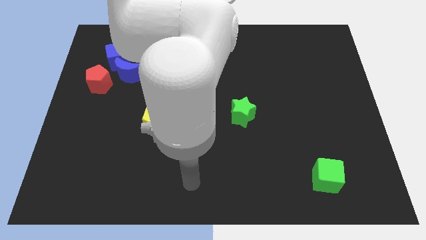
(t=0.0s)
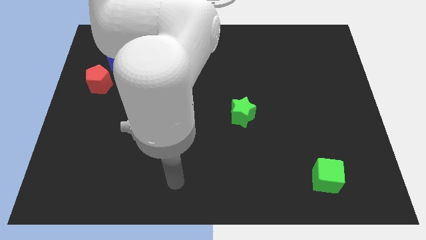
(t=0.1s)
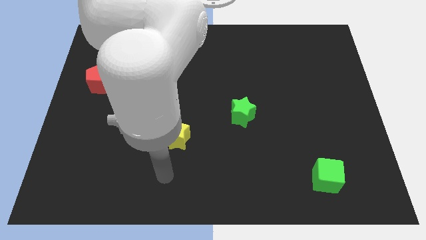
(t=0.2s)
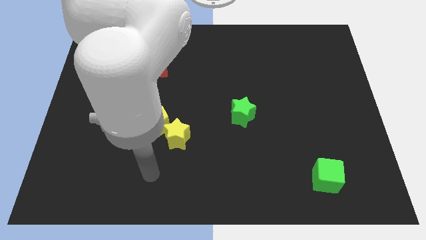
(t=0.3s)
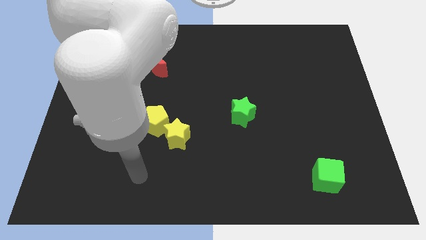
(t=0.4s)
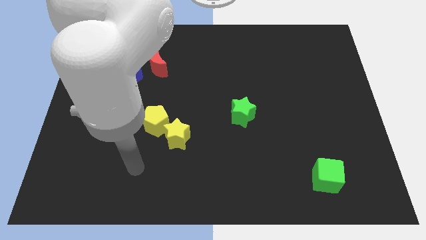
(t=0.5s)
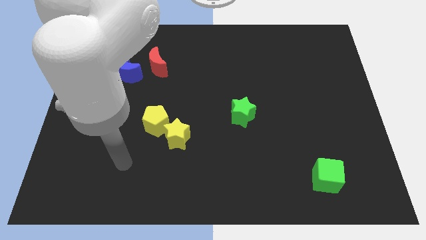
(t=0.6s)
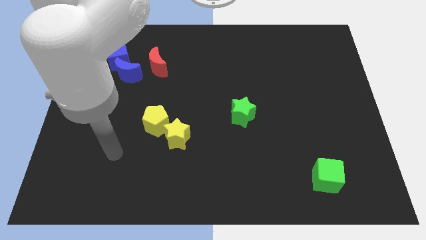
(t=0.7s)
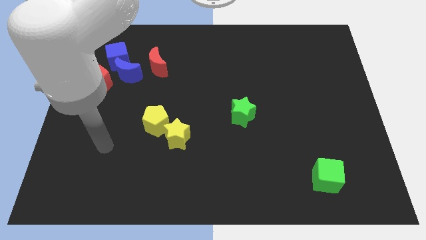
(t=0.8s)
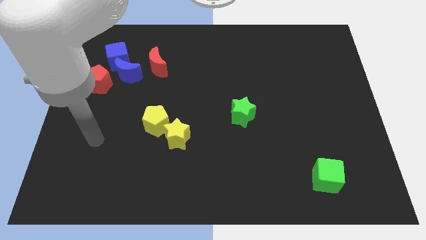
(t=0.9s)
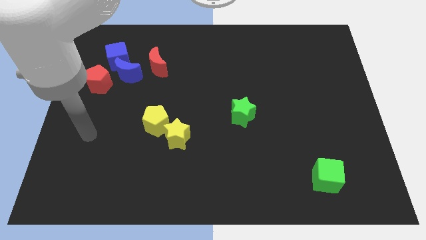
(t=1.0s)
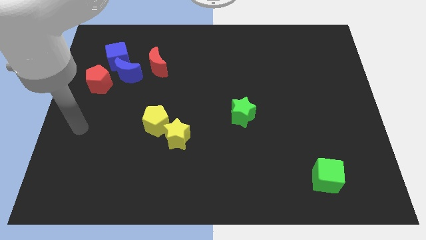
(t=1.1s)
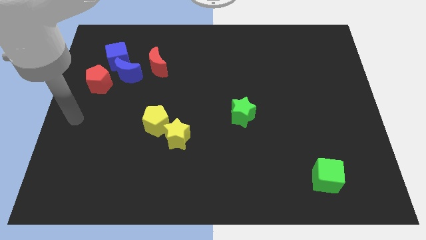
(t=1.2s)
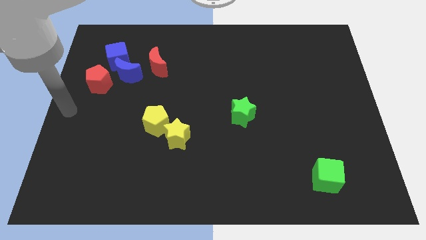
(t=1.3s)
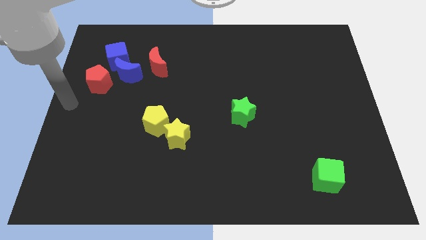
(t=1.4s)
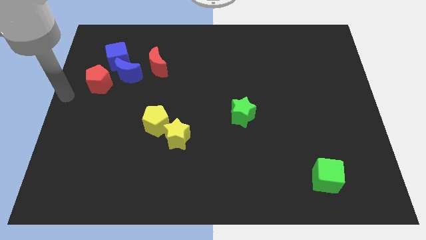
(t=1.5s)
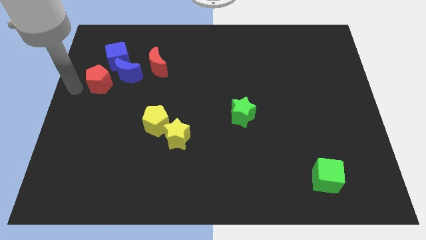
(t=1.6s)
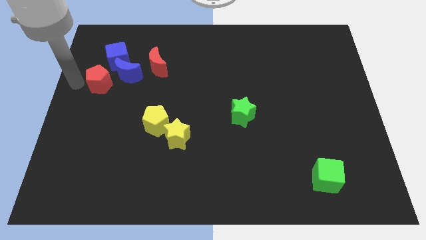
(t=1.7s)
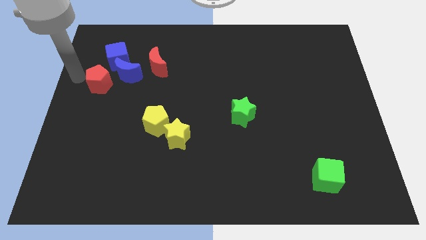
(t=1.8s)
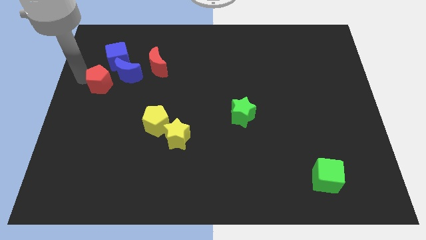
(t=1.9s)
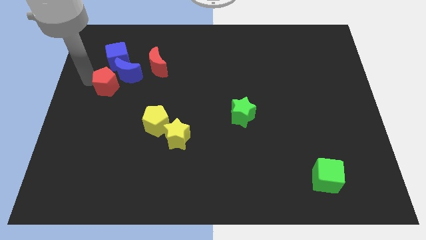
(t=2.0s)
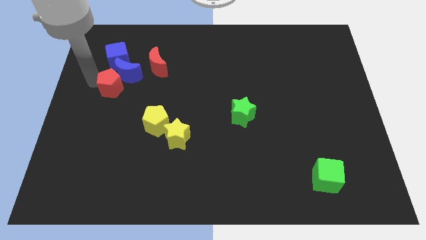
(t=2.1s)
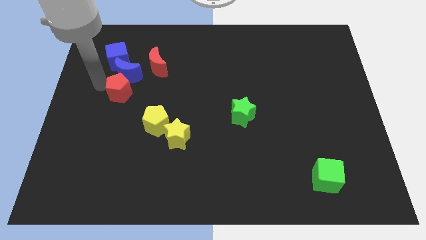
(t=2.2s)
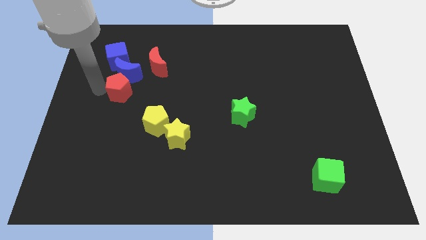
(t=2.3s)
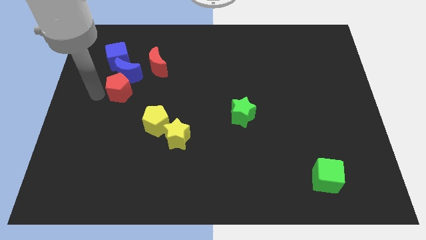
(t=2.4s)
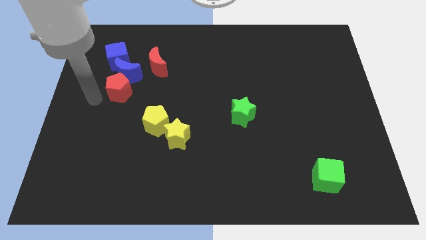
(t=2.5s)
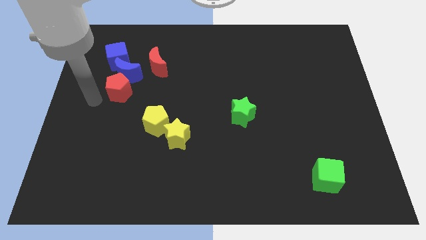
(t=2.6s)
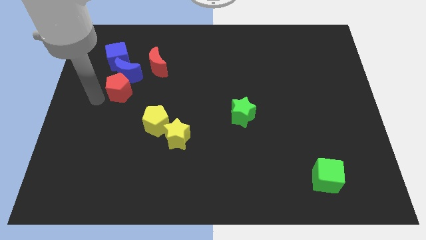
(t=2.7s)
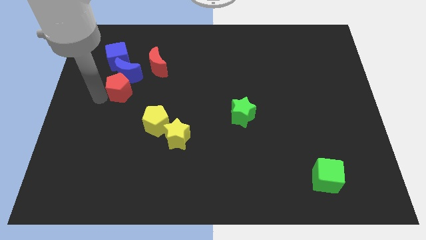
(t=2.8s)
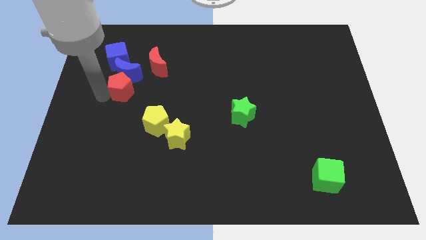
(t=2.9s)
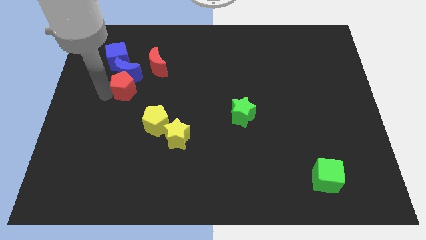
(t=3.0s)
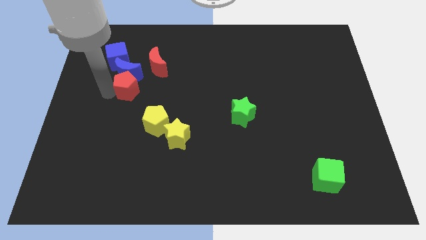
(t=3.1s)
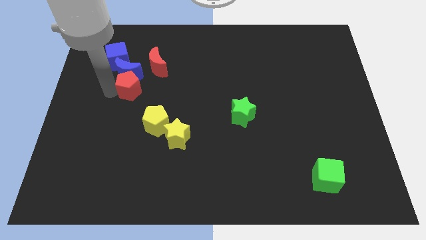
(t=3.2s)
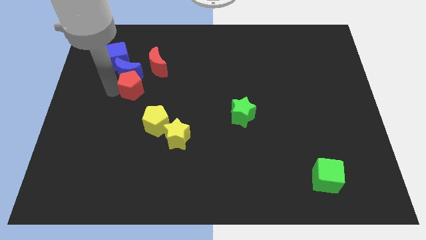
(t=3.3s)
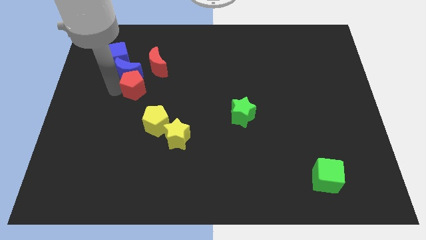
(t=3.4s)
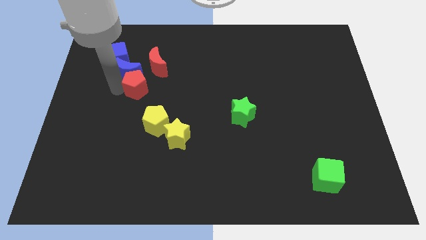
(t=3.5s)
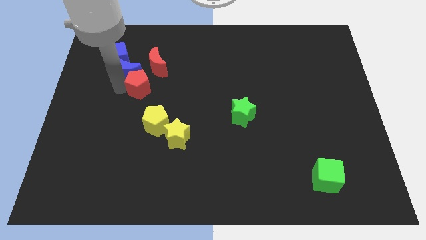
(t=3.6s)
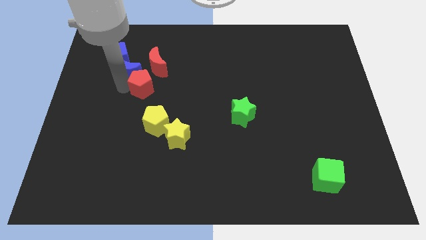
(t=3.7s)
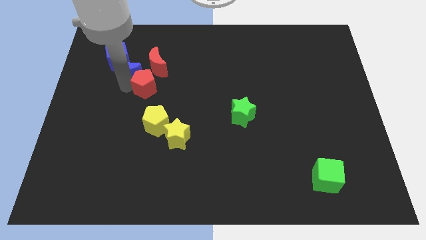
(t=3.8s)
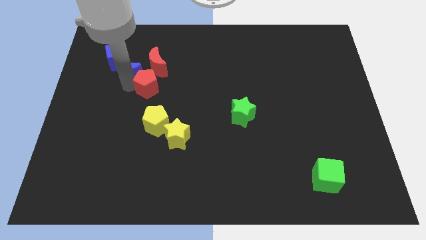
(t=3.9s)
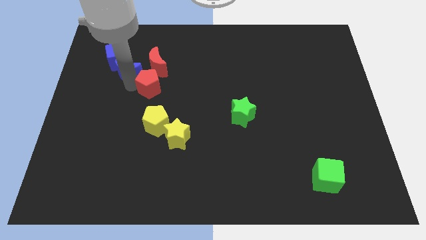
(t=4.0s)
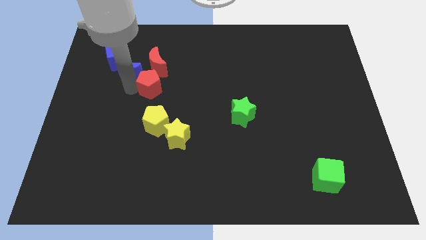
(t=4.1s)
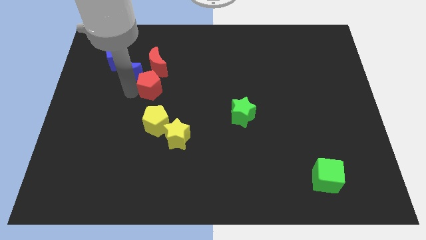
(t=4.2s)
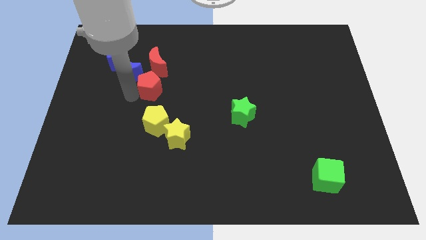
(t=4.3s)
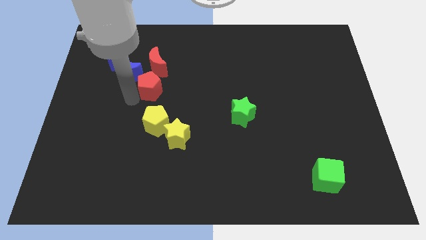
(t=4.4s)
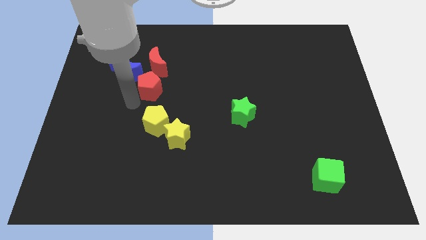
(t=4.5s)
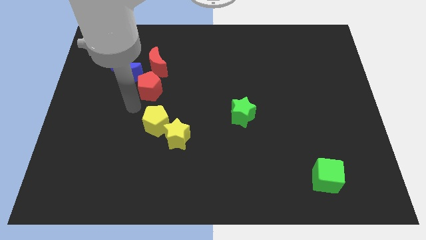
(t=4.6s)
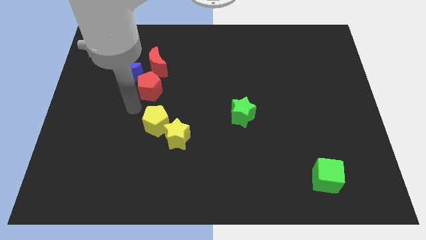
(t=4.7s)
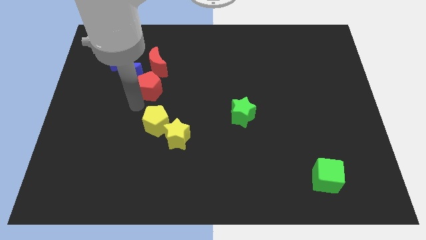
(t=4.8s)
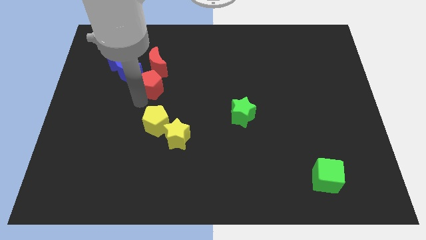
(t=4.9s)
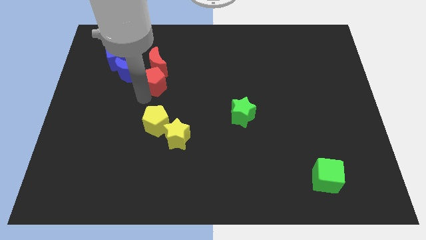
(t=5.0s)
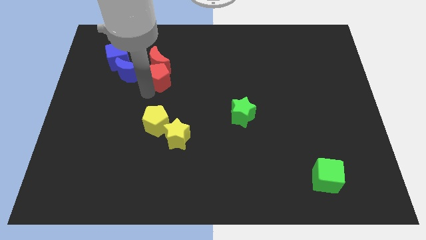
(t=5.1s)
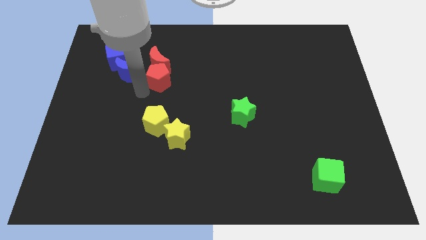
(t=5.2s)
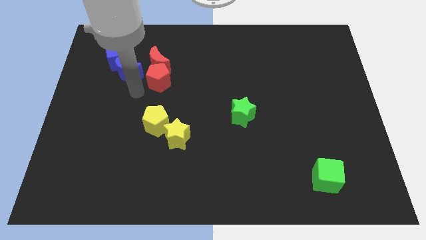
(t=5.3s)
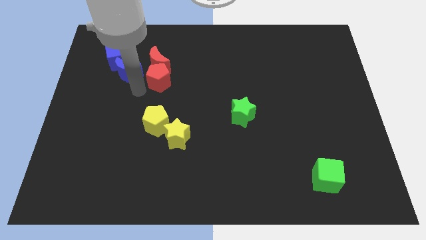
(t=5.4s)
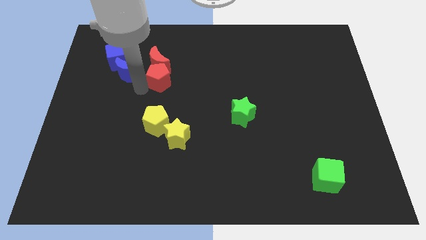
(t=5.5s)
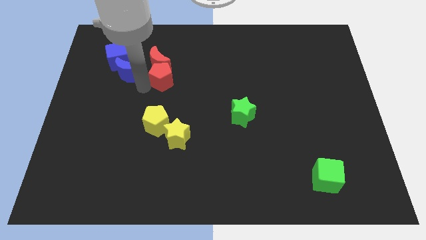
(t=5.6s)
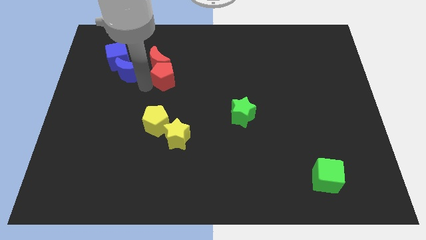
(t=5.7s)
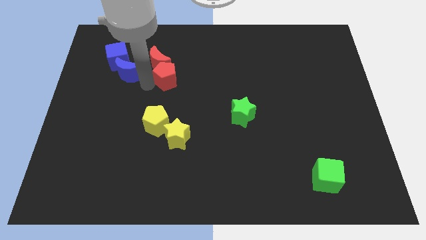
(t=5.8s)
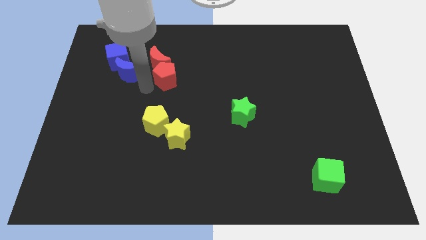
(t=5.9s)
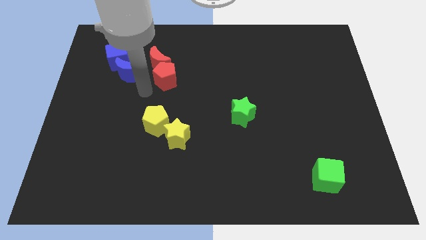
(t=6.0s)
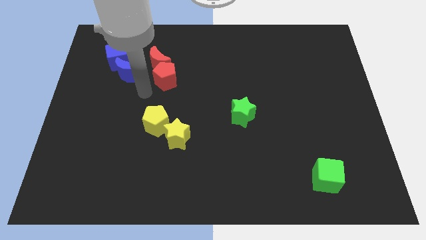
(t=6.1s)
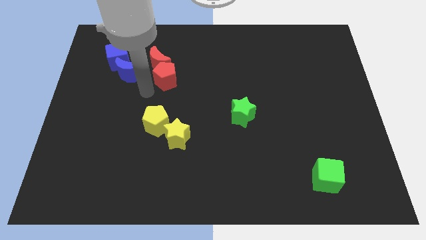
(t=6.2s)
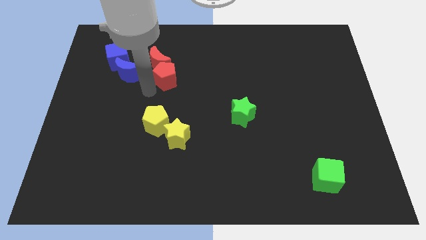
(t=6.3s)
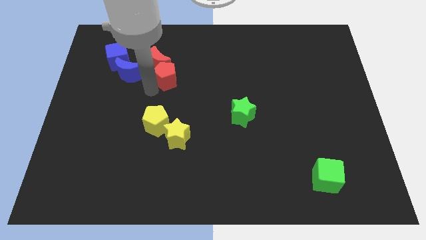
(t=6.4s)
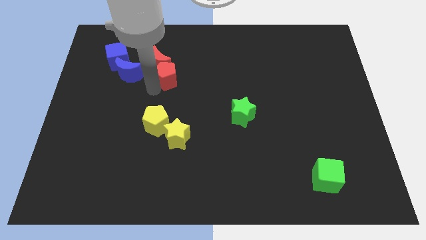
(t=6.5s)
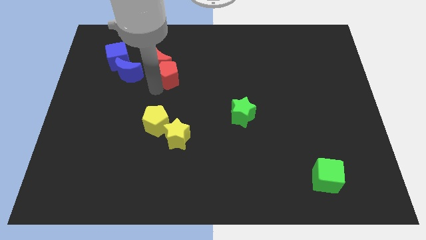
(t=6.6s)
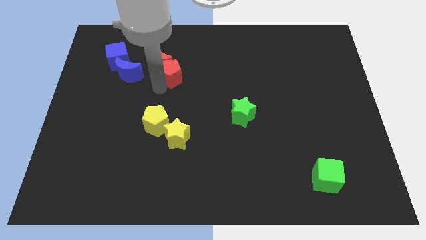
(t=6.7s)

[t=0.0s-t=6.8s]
move the red pentagon just right of the red moon

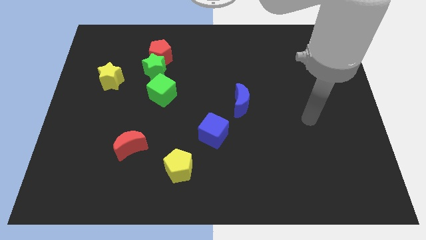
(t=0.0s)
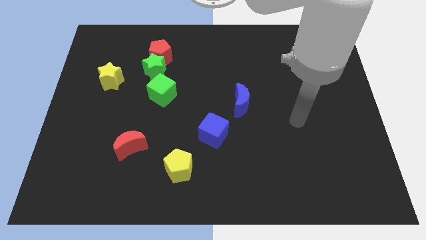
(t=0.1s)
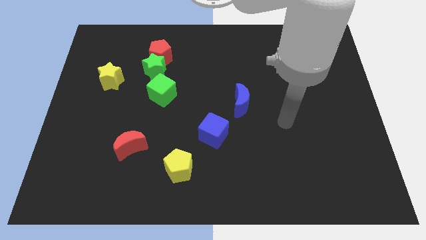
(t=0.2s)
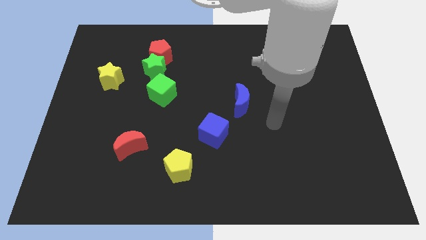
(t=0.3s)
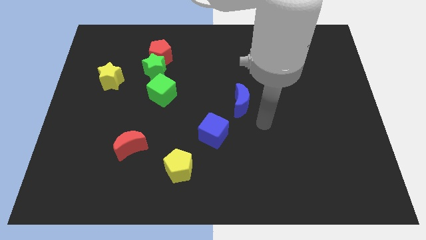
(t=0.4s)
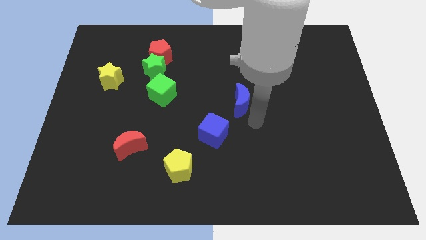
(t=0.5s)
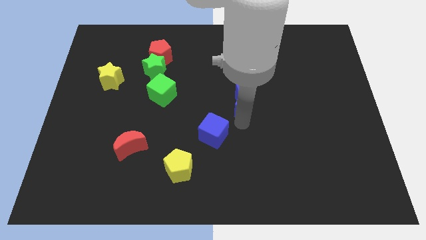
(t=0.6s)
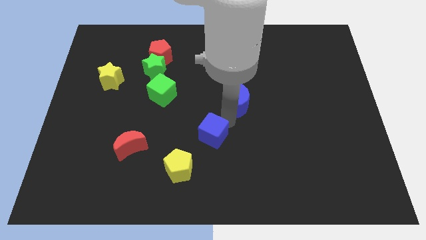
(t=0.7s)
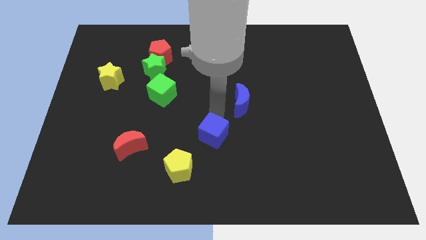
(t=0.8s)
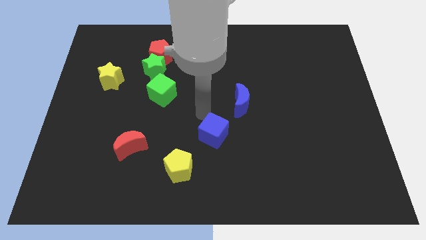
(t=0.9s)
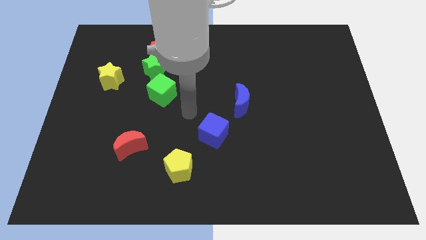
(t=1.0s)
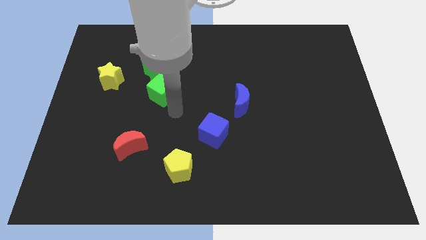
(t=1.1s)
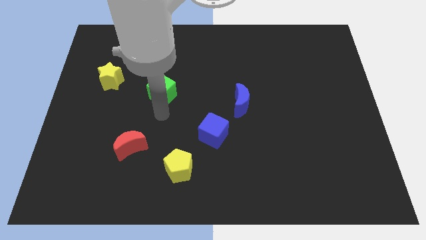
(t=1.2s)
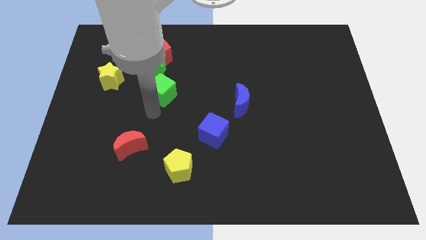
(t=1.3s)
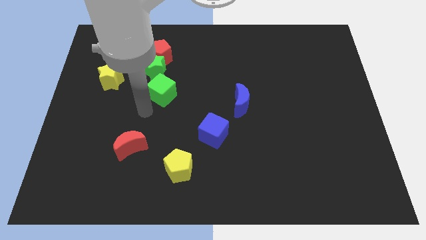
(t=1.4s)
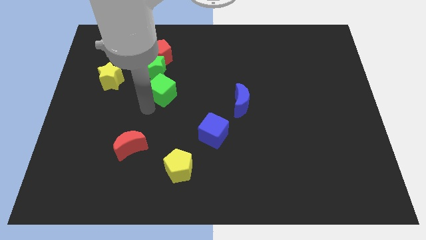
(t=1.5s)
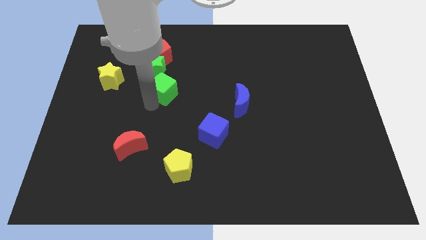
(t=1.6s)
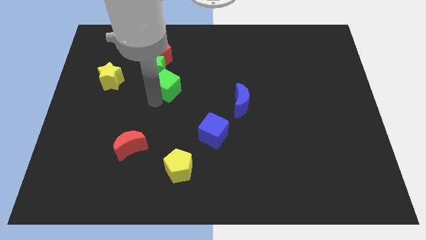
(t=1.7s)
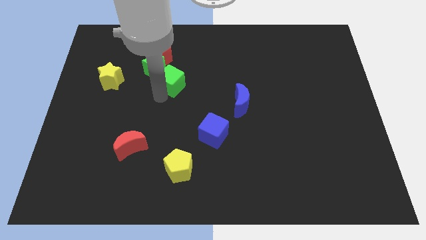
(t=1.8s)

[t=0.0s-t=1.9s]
move the green cube to the bottom right side of the red pentagon
